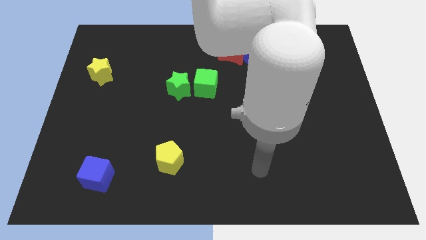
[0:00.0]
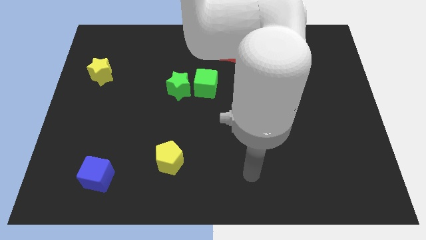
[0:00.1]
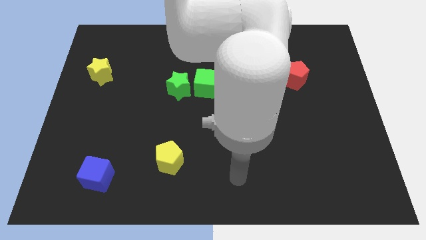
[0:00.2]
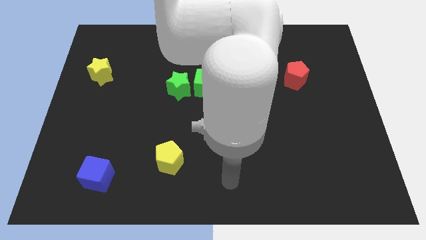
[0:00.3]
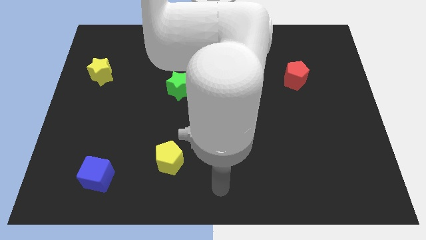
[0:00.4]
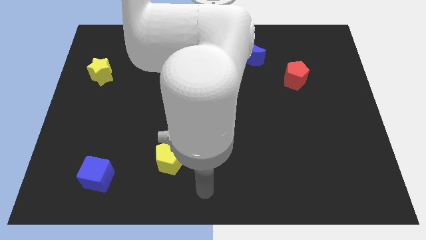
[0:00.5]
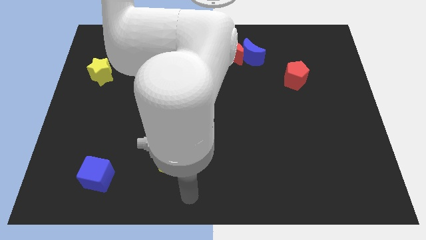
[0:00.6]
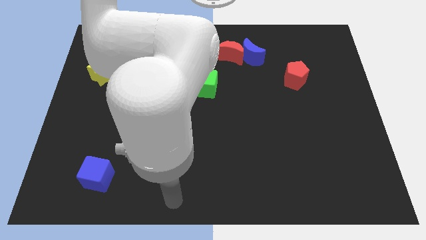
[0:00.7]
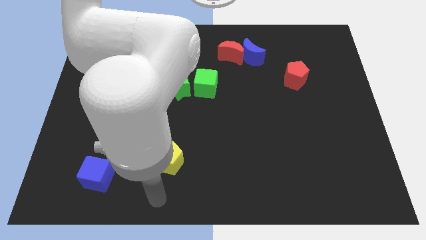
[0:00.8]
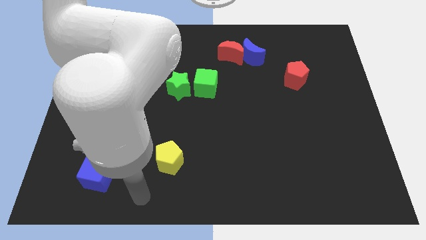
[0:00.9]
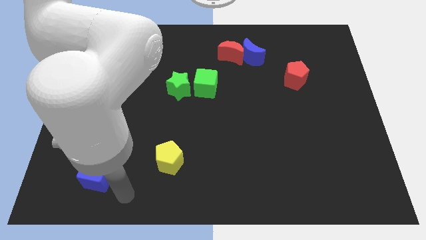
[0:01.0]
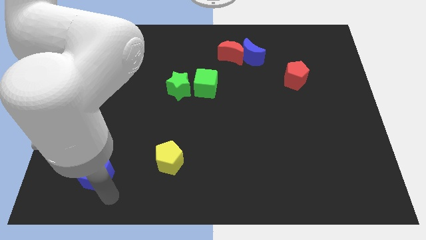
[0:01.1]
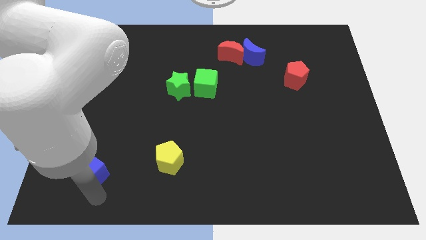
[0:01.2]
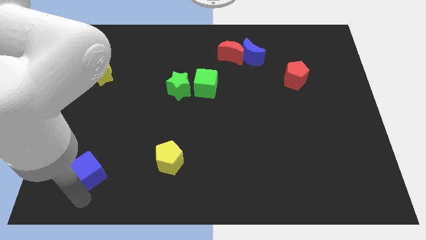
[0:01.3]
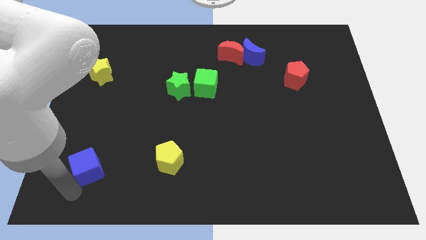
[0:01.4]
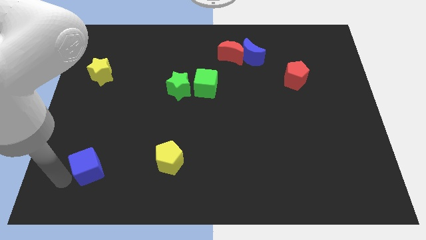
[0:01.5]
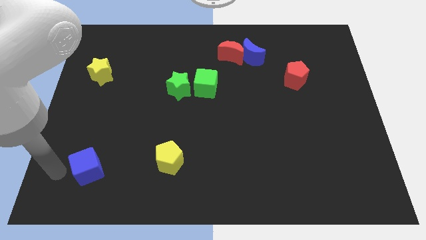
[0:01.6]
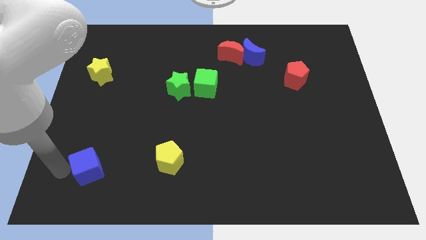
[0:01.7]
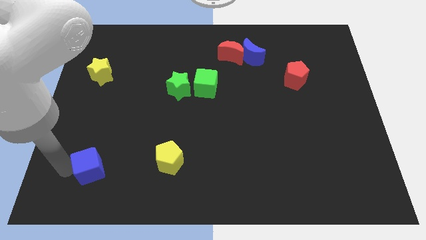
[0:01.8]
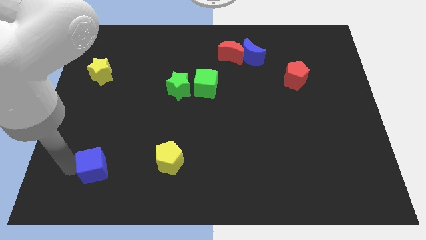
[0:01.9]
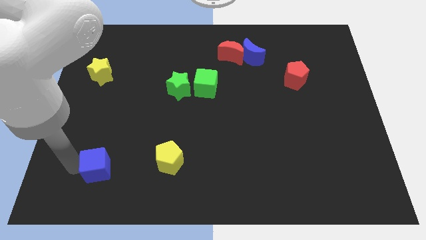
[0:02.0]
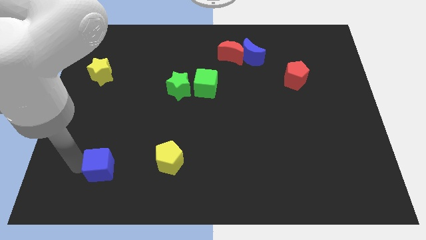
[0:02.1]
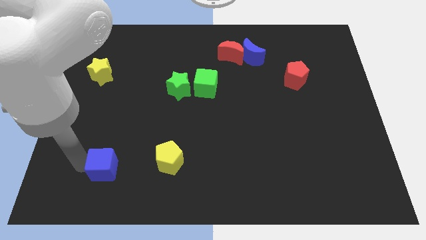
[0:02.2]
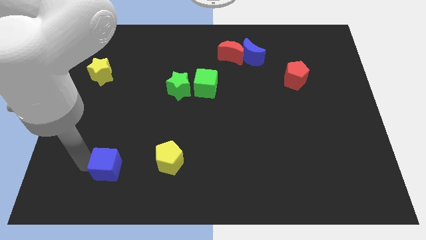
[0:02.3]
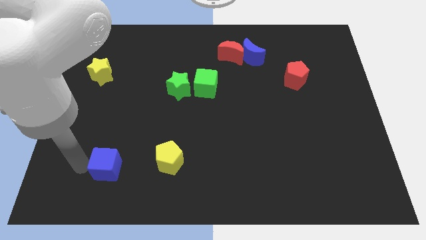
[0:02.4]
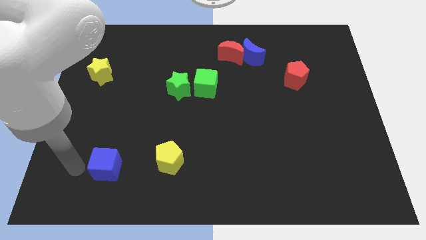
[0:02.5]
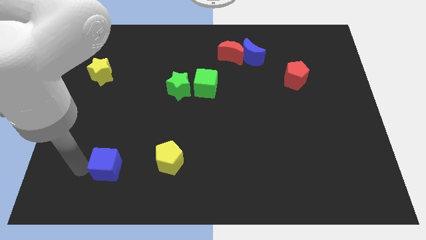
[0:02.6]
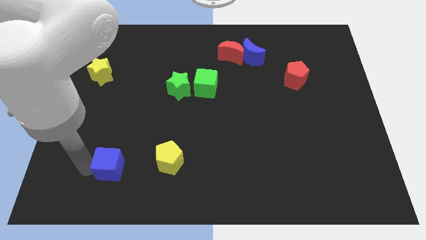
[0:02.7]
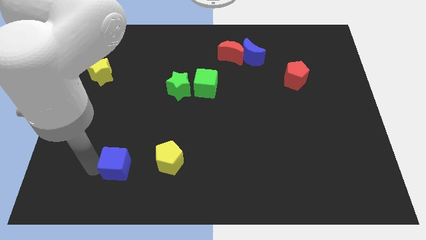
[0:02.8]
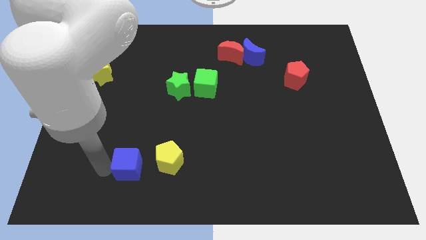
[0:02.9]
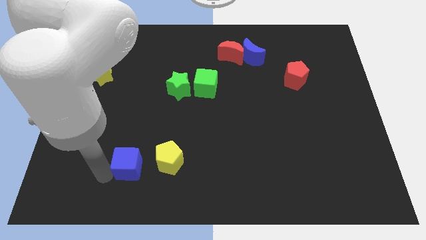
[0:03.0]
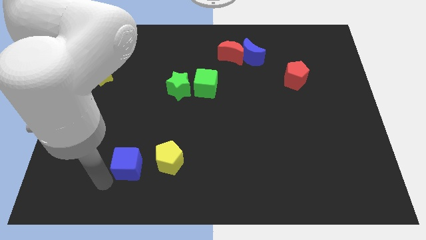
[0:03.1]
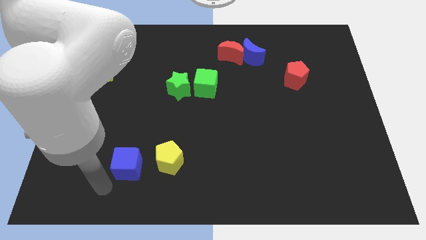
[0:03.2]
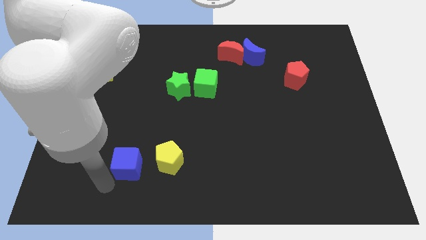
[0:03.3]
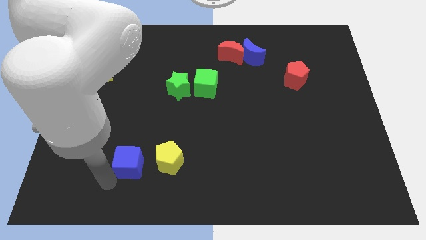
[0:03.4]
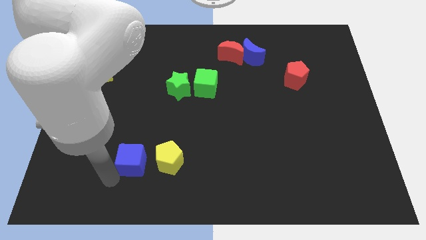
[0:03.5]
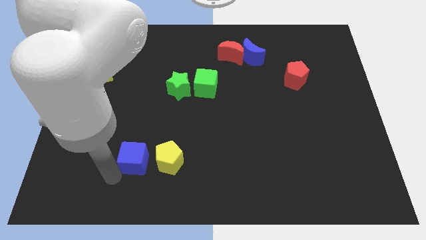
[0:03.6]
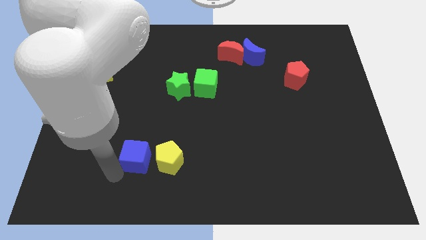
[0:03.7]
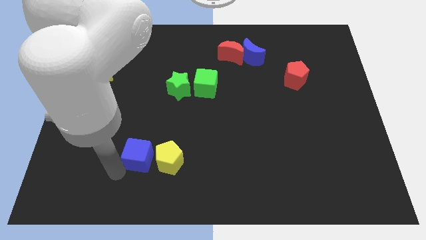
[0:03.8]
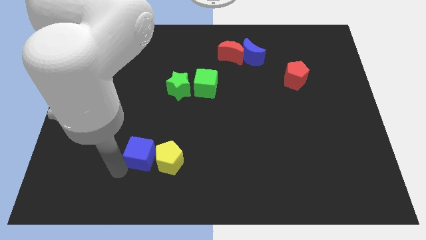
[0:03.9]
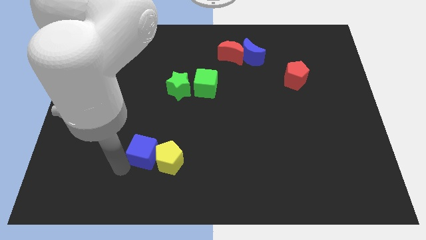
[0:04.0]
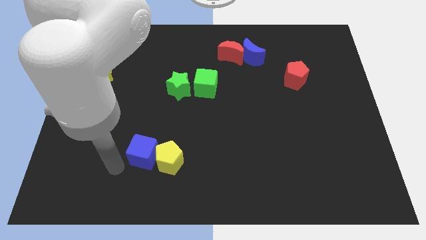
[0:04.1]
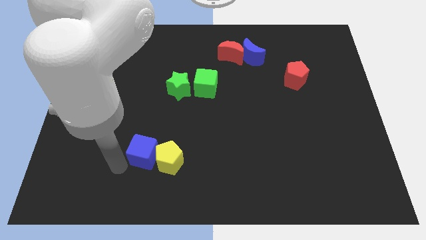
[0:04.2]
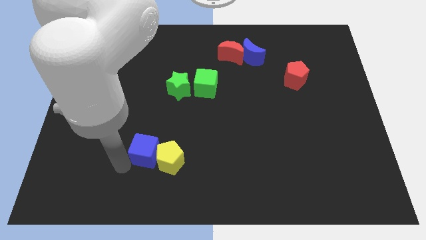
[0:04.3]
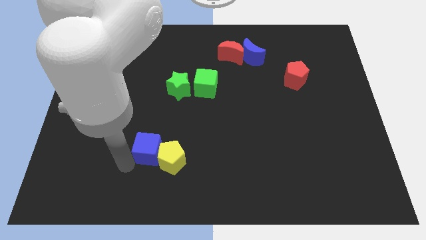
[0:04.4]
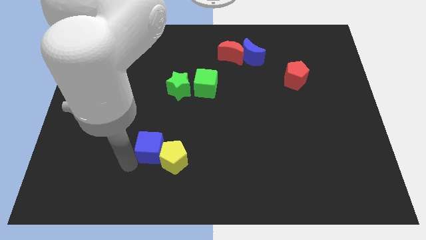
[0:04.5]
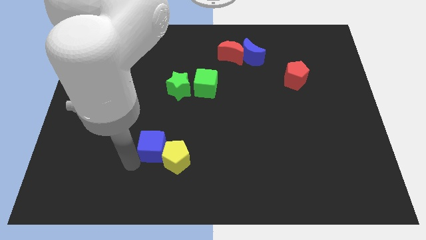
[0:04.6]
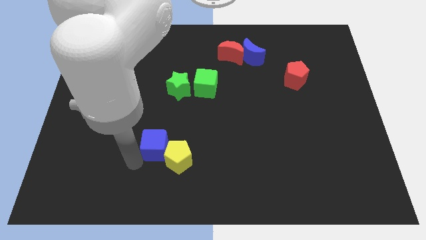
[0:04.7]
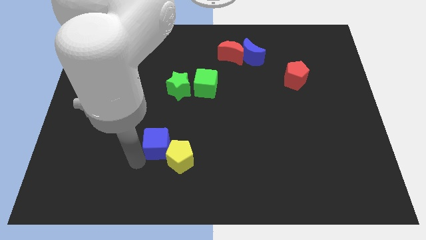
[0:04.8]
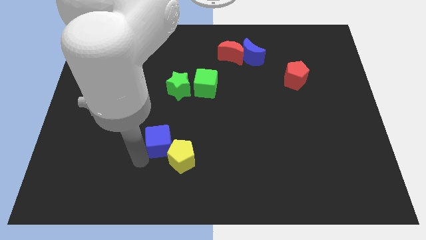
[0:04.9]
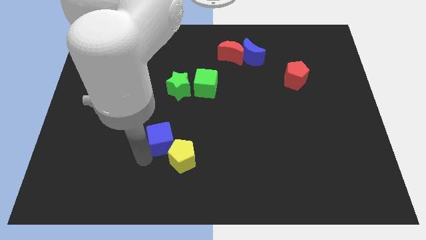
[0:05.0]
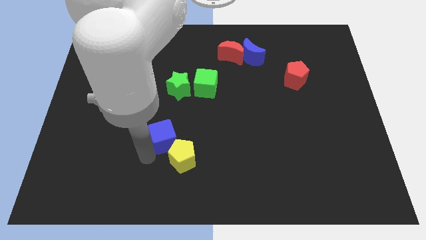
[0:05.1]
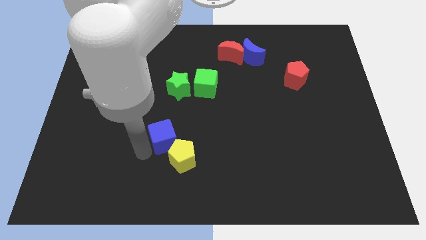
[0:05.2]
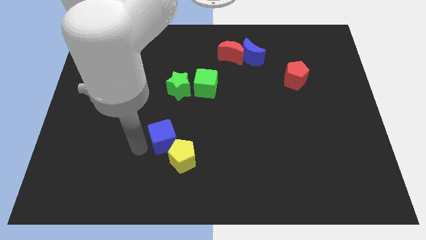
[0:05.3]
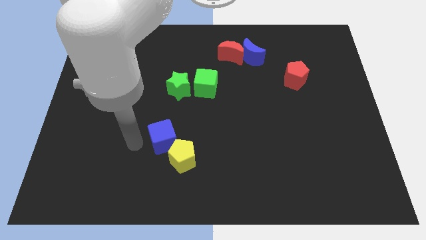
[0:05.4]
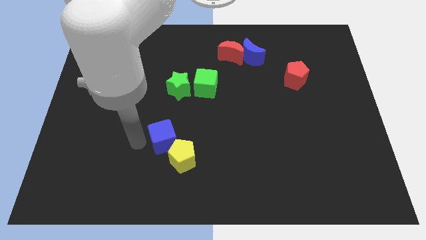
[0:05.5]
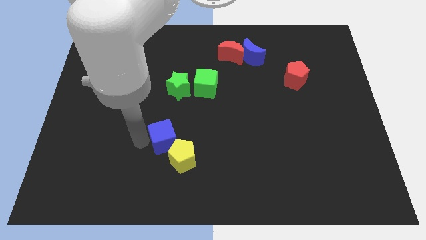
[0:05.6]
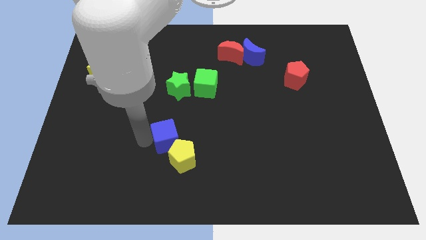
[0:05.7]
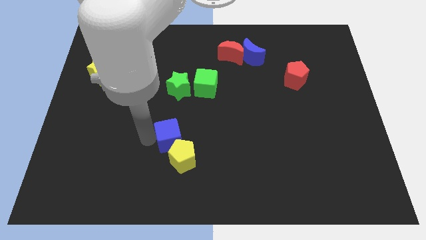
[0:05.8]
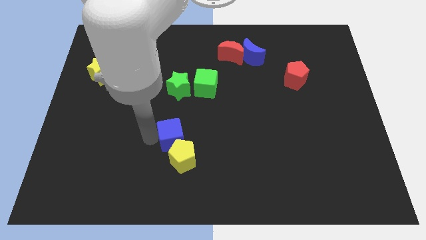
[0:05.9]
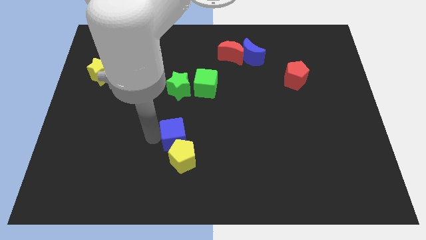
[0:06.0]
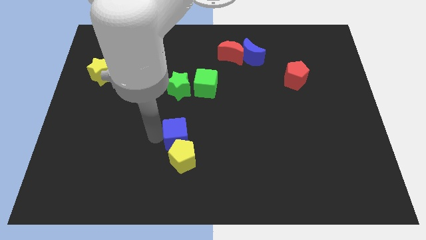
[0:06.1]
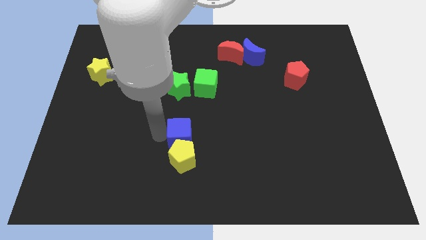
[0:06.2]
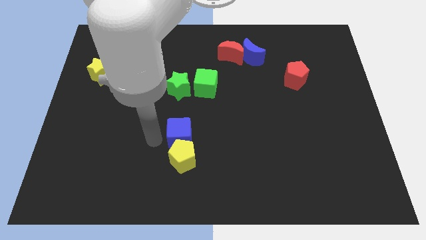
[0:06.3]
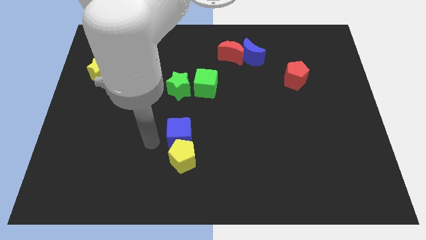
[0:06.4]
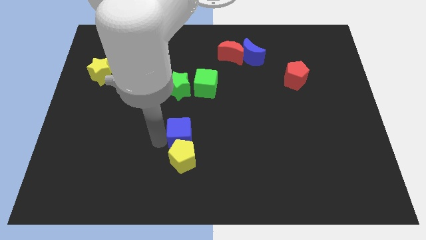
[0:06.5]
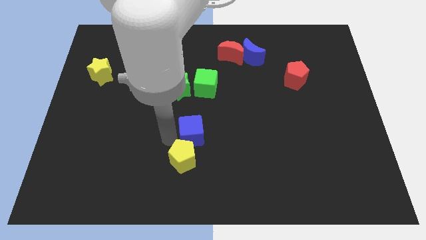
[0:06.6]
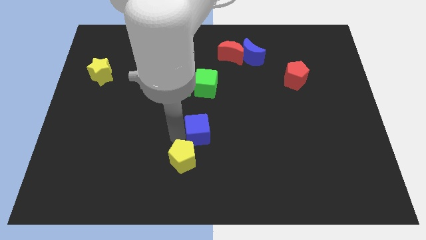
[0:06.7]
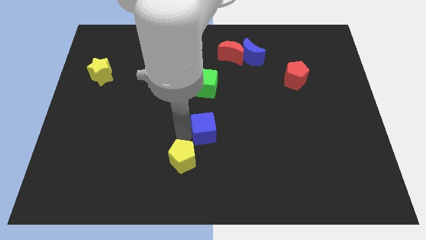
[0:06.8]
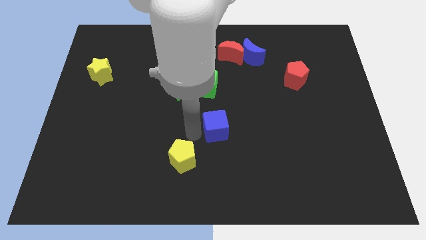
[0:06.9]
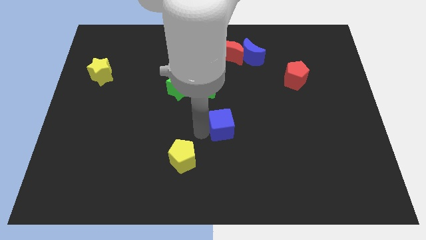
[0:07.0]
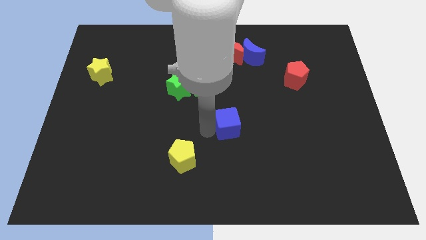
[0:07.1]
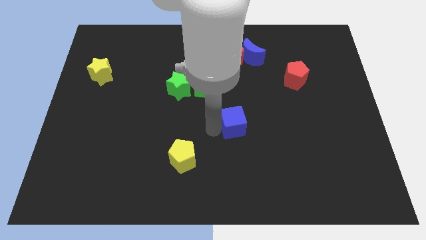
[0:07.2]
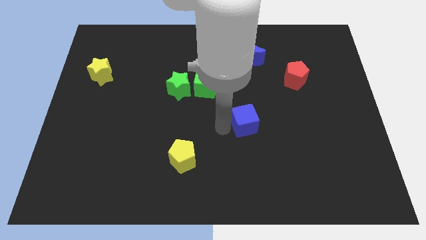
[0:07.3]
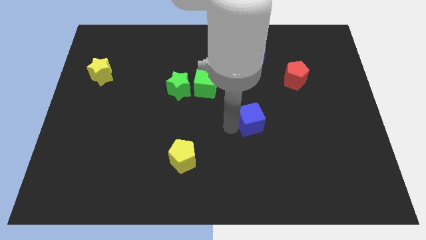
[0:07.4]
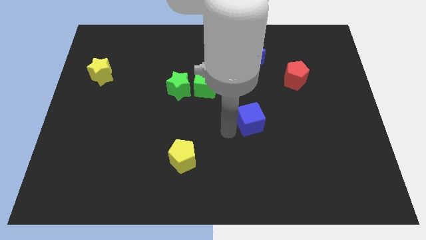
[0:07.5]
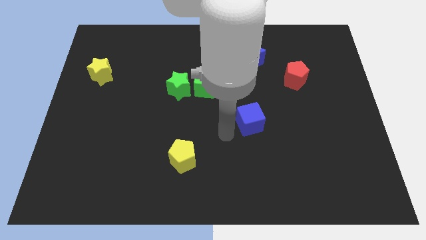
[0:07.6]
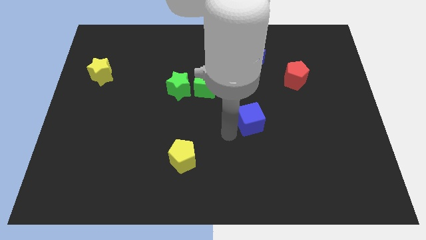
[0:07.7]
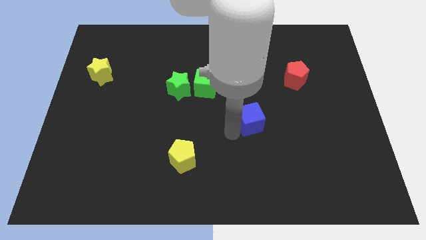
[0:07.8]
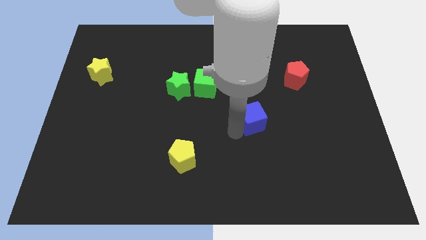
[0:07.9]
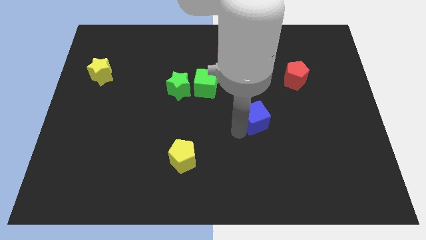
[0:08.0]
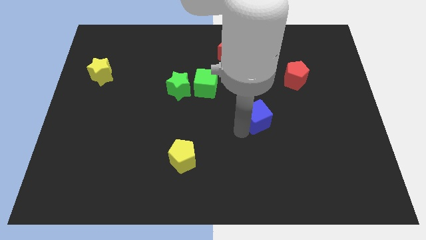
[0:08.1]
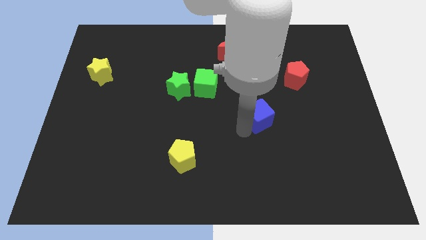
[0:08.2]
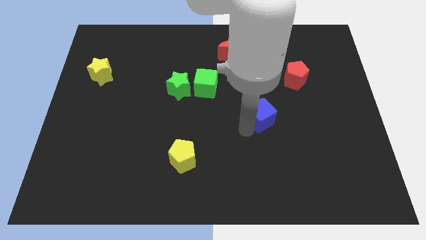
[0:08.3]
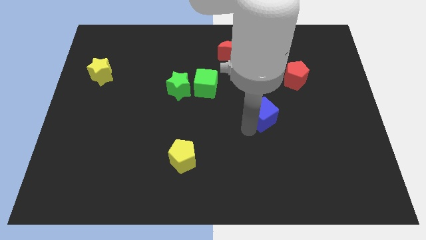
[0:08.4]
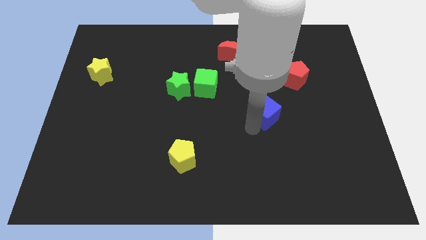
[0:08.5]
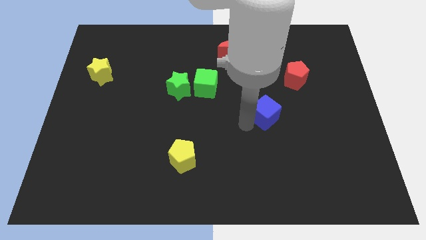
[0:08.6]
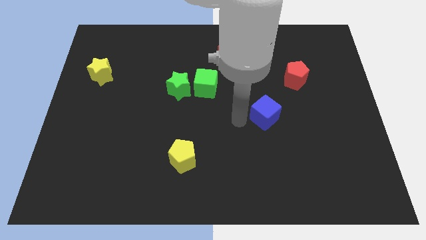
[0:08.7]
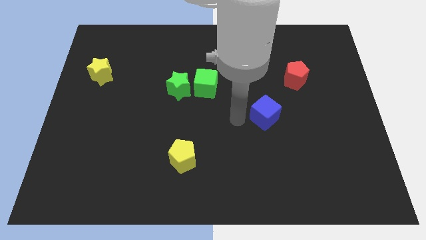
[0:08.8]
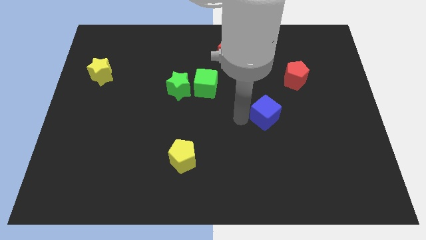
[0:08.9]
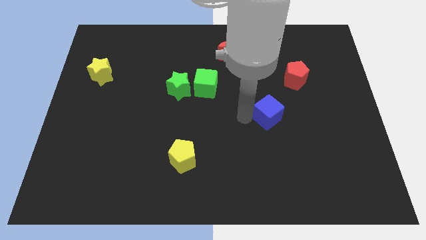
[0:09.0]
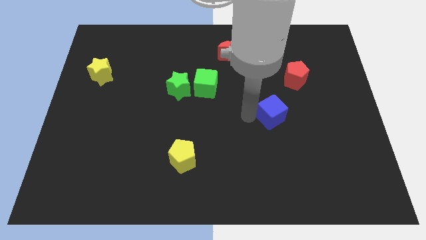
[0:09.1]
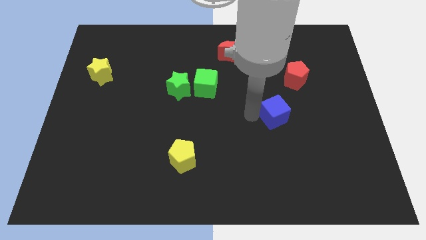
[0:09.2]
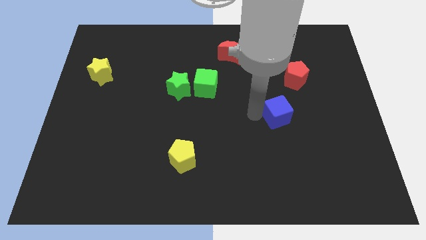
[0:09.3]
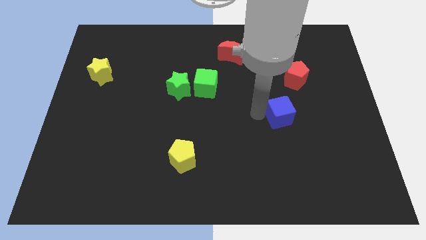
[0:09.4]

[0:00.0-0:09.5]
move the blue cube to the bottom side of the red pentagon
